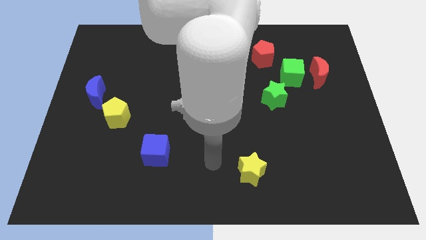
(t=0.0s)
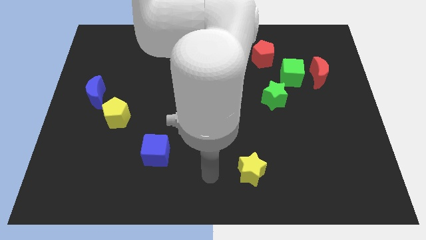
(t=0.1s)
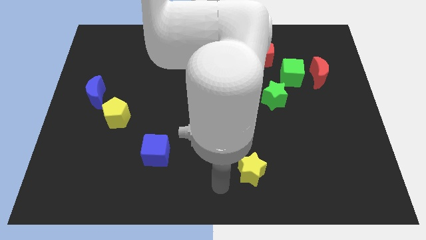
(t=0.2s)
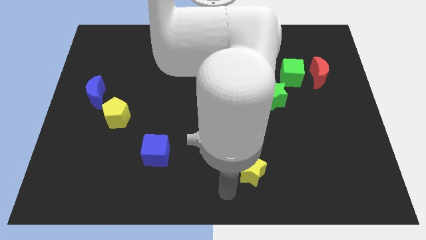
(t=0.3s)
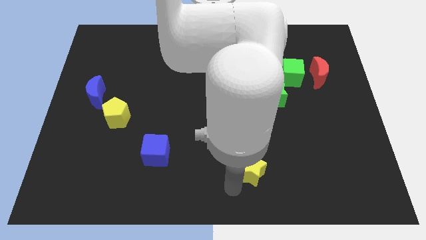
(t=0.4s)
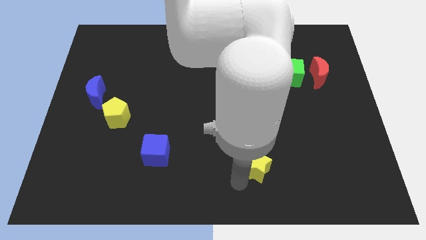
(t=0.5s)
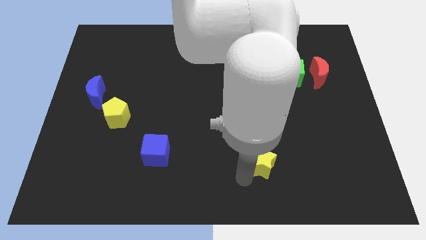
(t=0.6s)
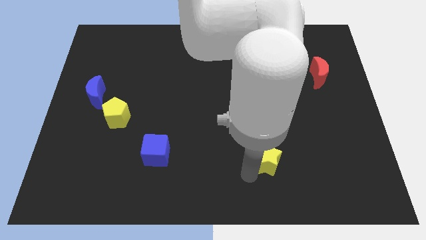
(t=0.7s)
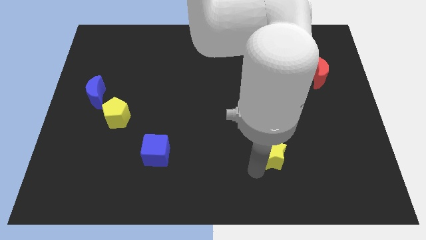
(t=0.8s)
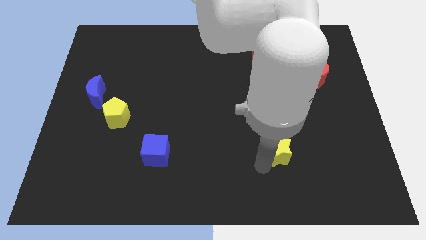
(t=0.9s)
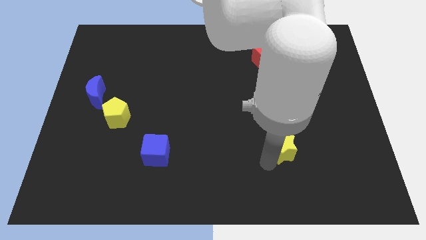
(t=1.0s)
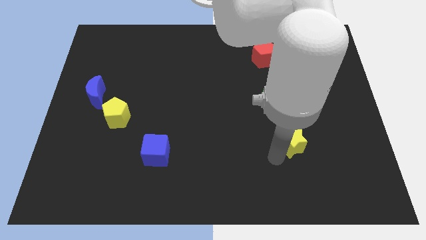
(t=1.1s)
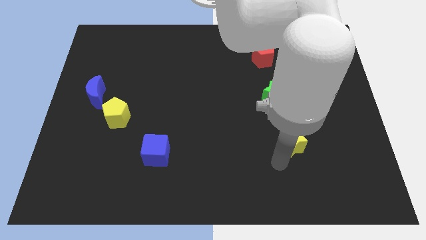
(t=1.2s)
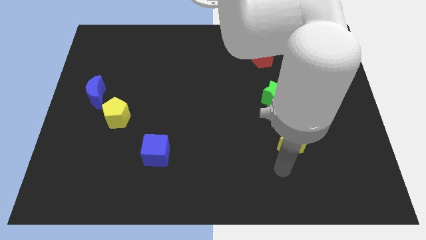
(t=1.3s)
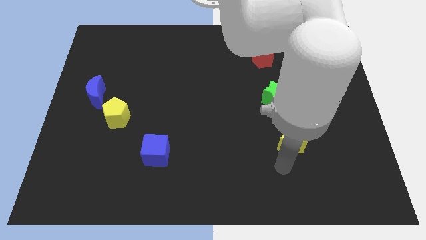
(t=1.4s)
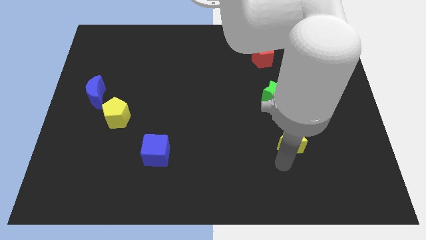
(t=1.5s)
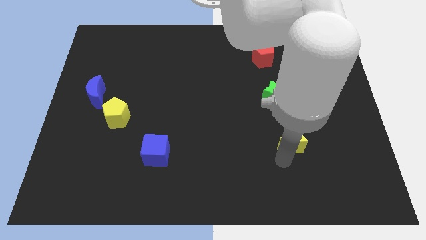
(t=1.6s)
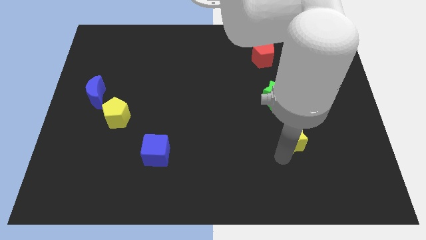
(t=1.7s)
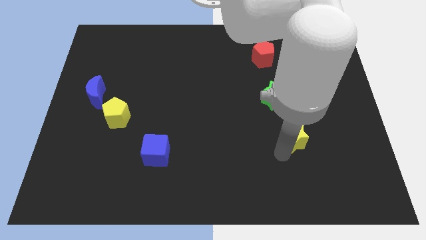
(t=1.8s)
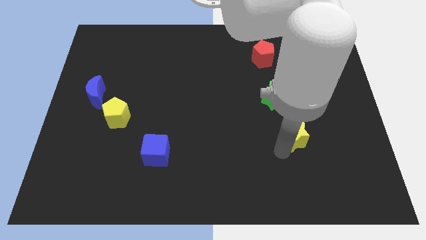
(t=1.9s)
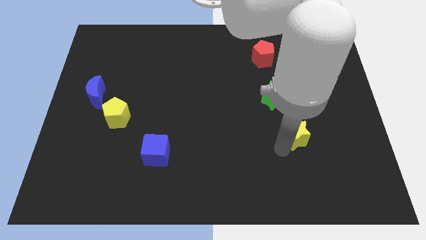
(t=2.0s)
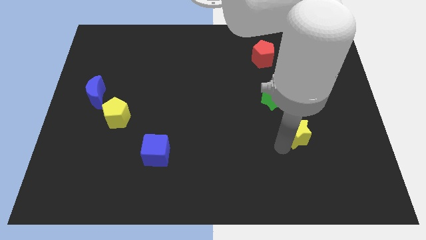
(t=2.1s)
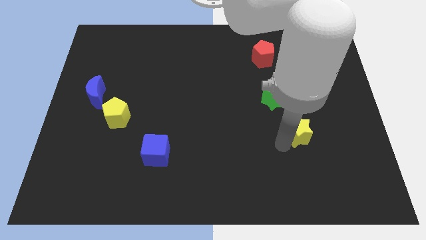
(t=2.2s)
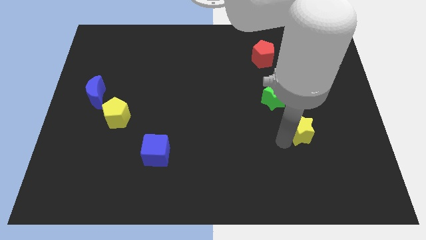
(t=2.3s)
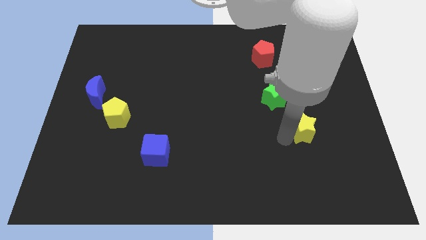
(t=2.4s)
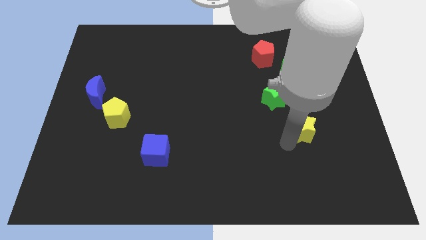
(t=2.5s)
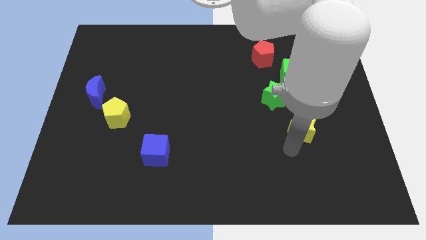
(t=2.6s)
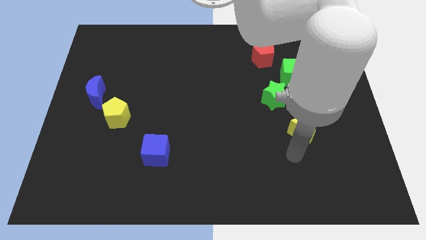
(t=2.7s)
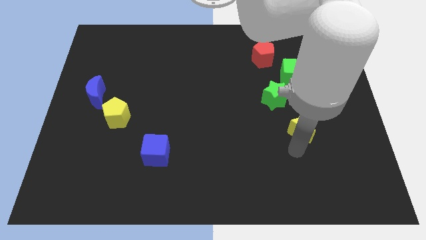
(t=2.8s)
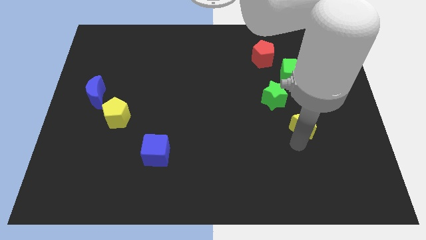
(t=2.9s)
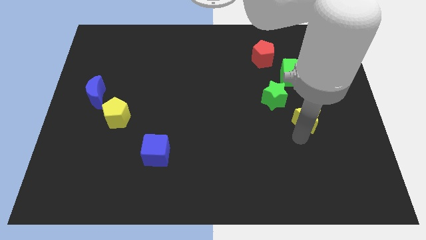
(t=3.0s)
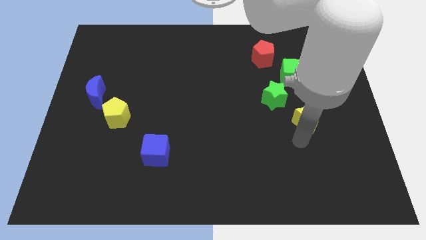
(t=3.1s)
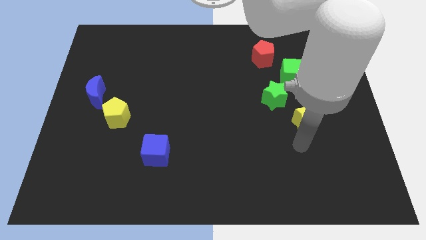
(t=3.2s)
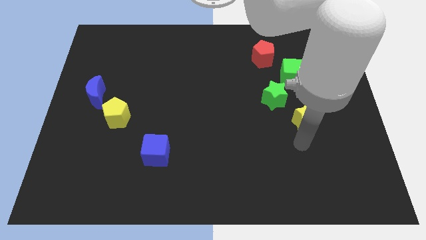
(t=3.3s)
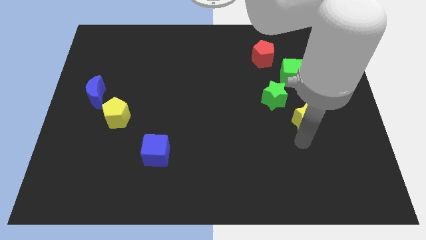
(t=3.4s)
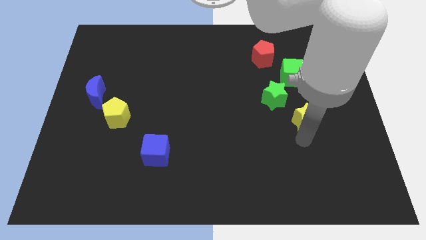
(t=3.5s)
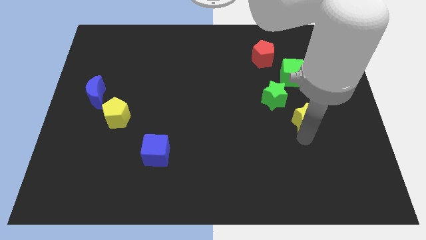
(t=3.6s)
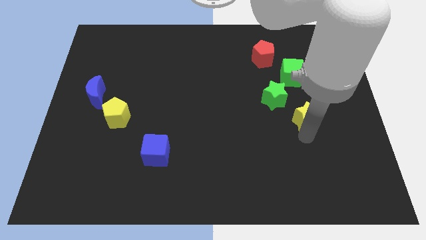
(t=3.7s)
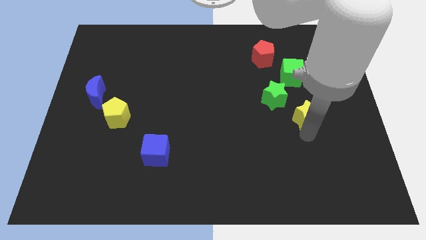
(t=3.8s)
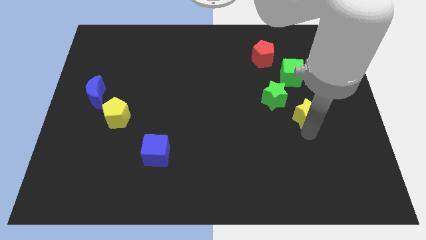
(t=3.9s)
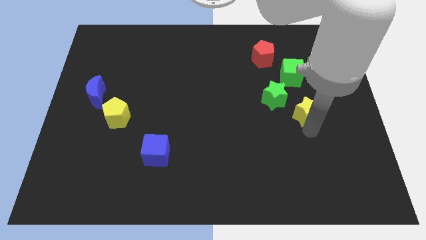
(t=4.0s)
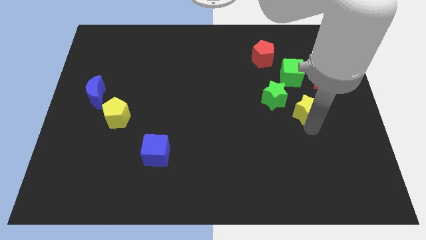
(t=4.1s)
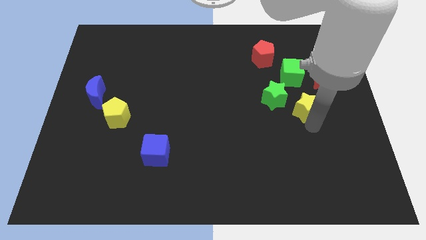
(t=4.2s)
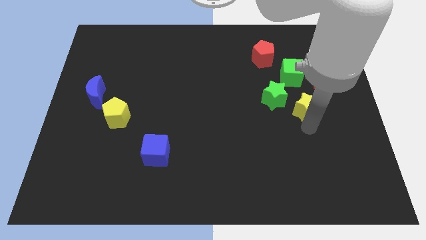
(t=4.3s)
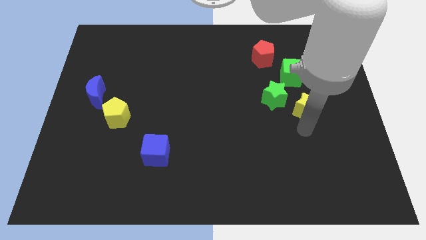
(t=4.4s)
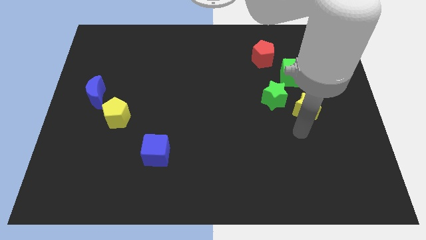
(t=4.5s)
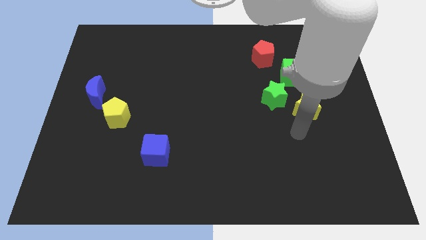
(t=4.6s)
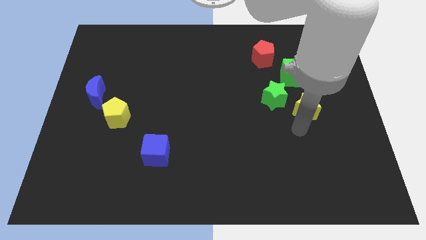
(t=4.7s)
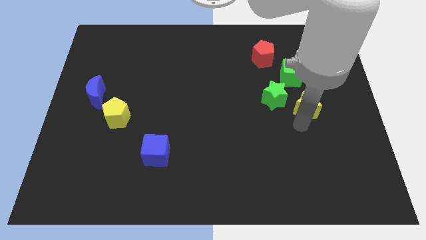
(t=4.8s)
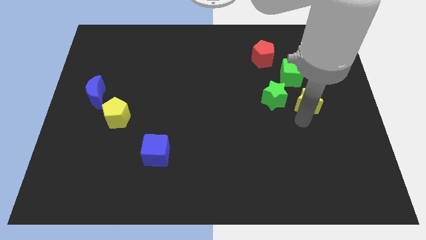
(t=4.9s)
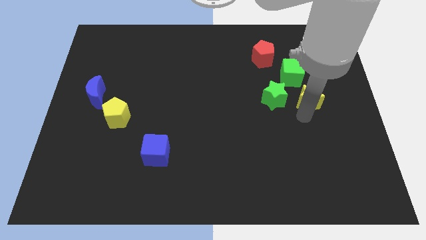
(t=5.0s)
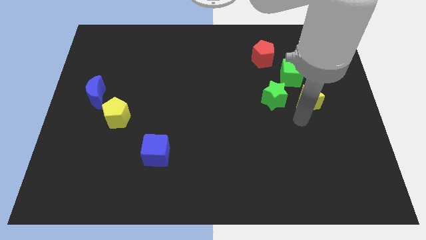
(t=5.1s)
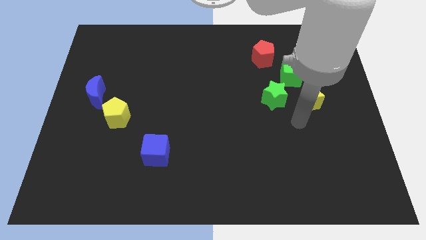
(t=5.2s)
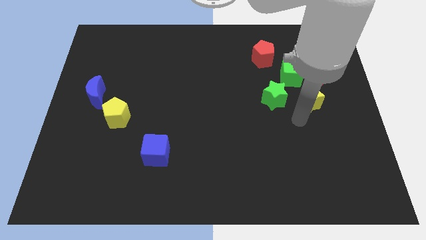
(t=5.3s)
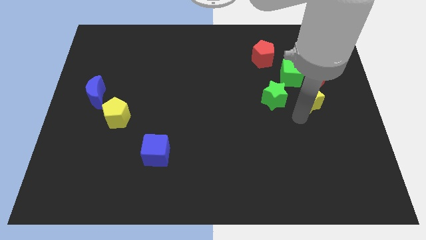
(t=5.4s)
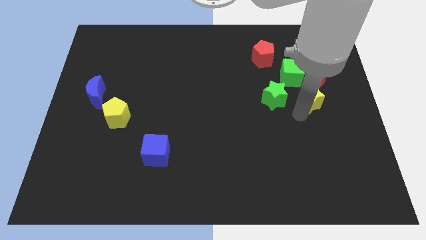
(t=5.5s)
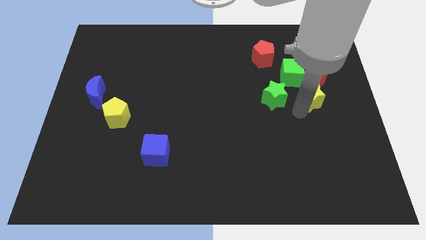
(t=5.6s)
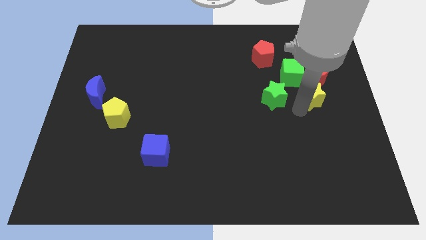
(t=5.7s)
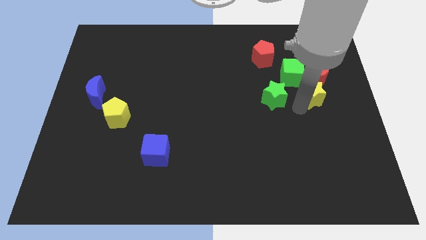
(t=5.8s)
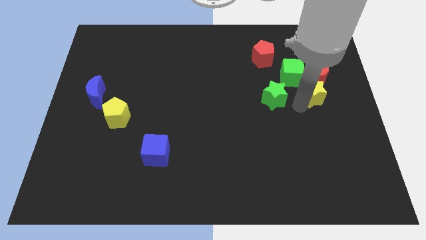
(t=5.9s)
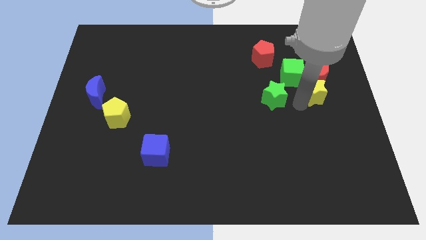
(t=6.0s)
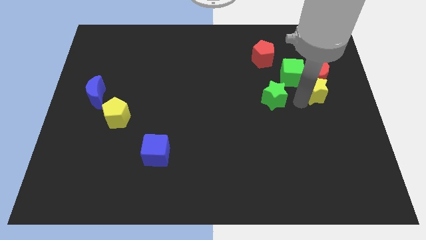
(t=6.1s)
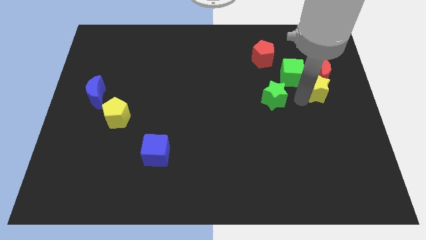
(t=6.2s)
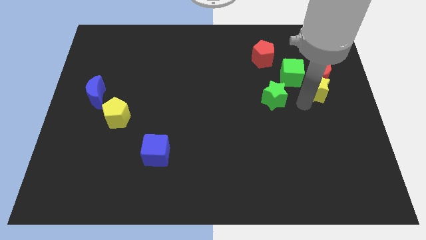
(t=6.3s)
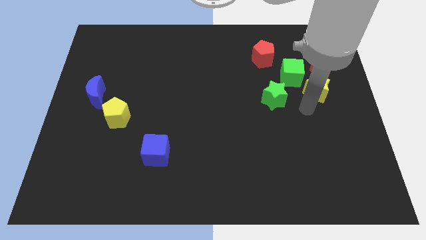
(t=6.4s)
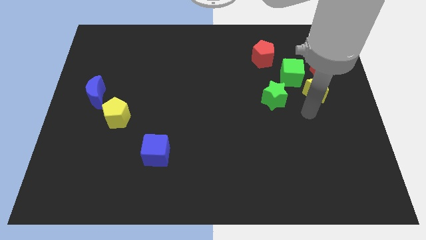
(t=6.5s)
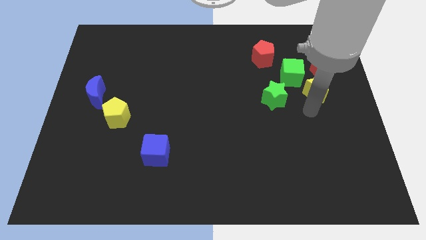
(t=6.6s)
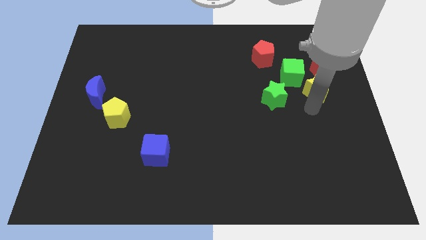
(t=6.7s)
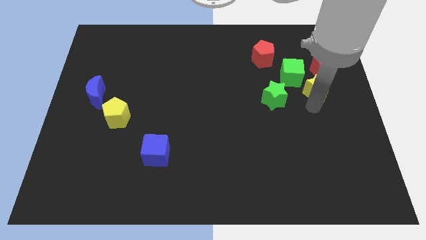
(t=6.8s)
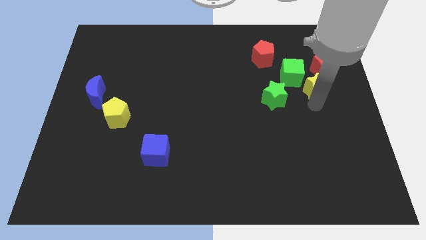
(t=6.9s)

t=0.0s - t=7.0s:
slide the yellow star towards the red moon
